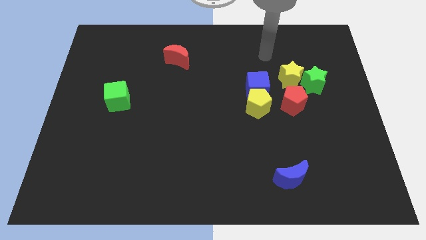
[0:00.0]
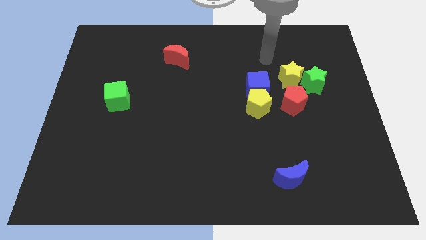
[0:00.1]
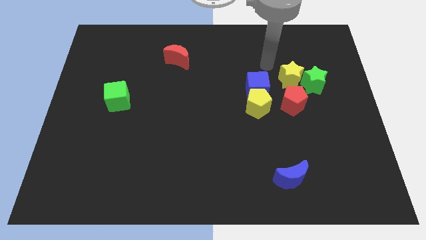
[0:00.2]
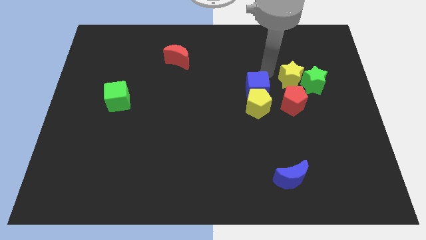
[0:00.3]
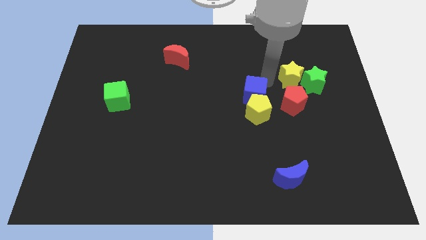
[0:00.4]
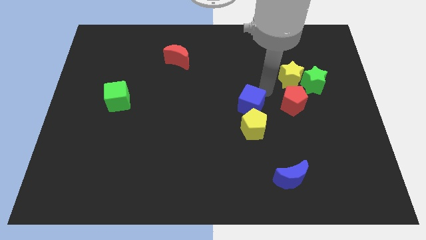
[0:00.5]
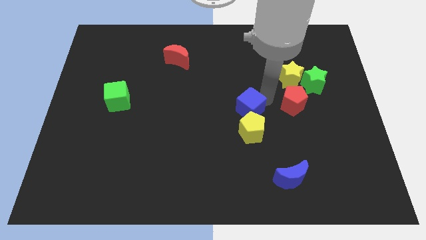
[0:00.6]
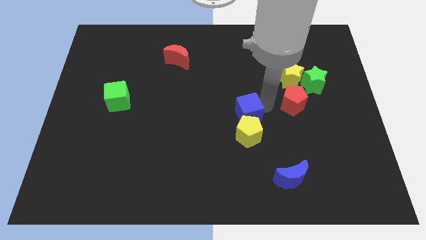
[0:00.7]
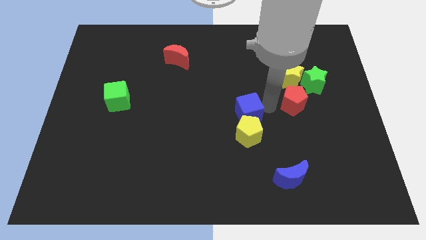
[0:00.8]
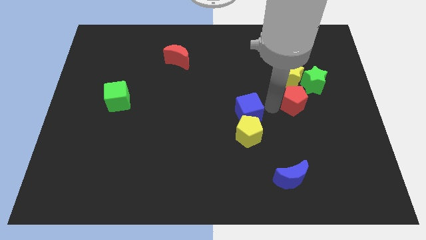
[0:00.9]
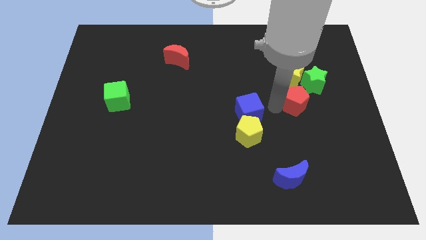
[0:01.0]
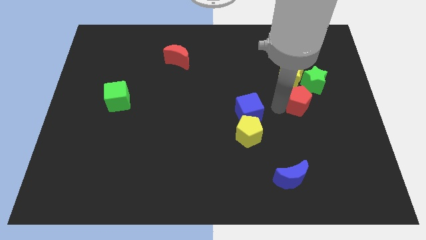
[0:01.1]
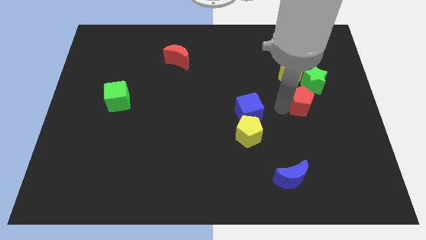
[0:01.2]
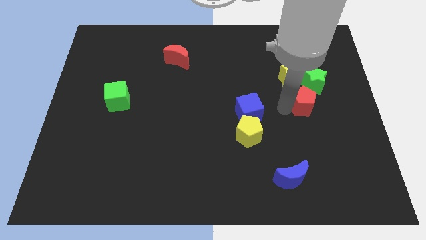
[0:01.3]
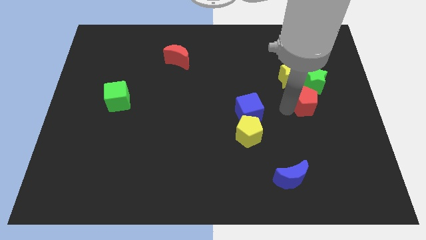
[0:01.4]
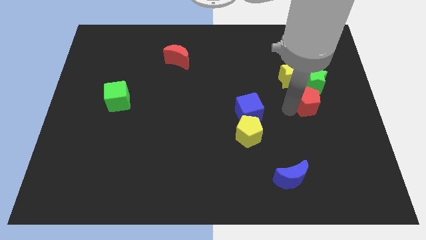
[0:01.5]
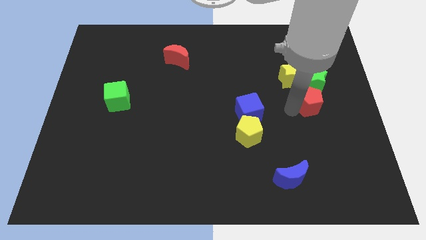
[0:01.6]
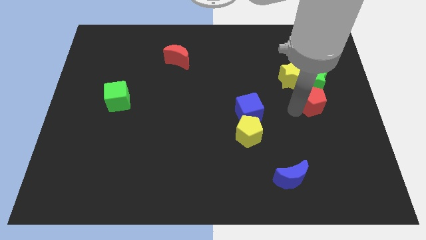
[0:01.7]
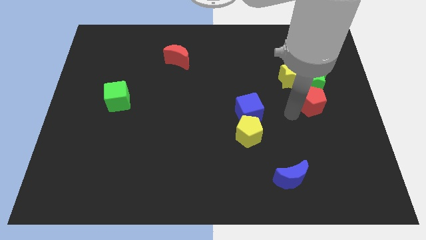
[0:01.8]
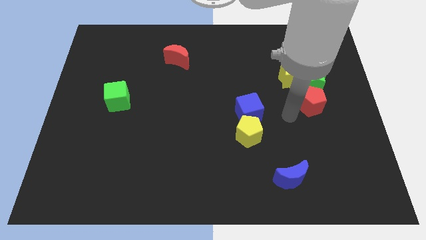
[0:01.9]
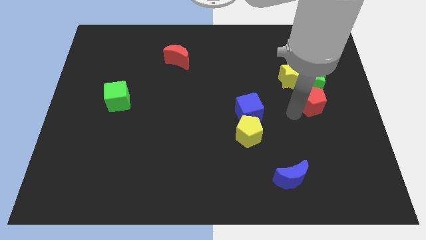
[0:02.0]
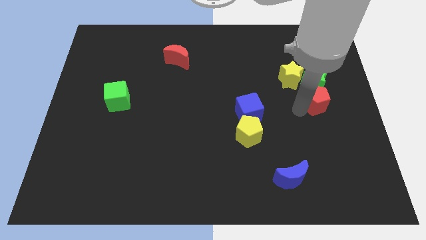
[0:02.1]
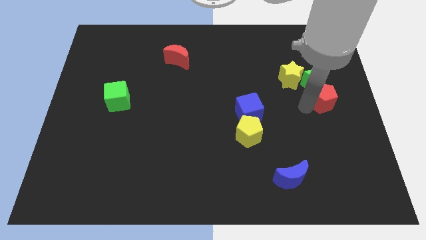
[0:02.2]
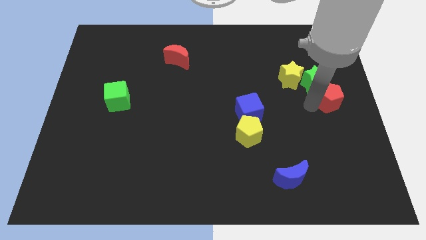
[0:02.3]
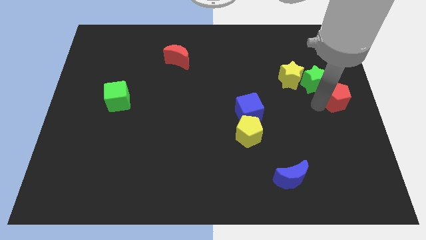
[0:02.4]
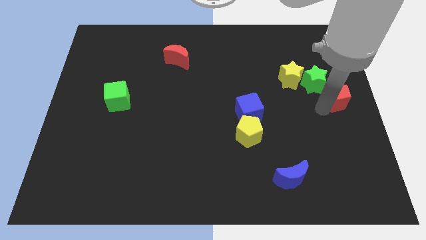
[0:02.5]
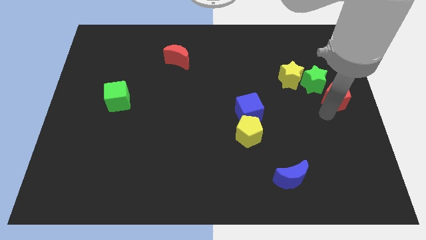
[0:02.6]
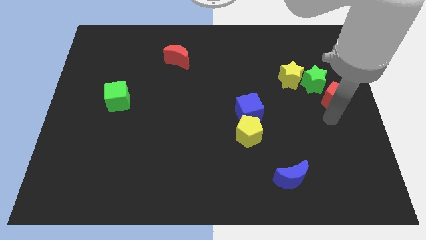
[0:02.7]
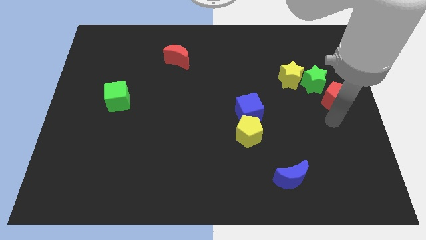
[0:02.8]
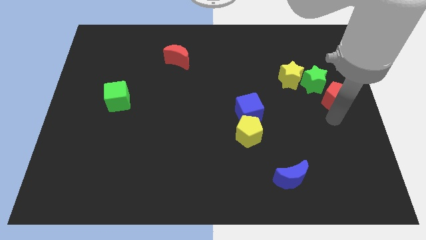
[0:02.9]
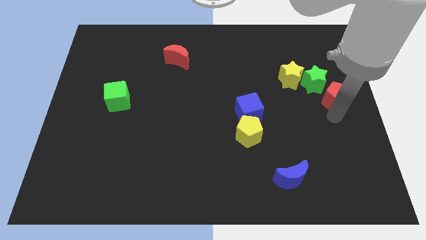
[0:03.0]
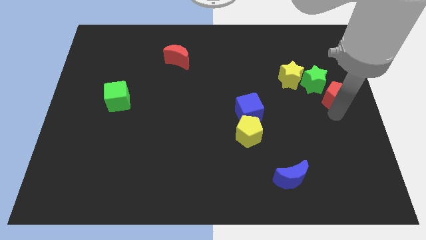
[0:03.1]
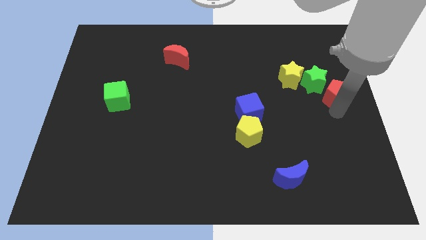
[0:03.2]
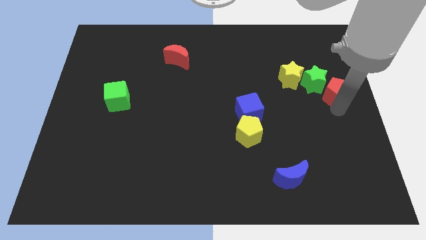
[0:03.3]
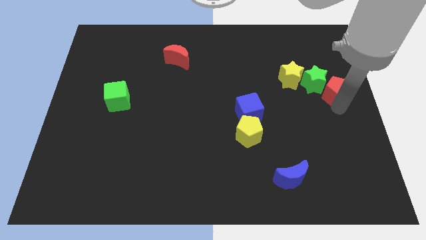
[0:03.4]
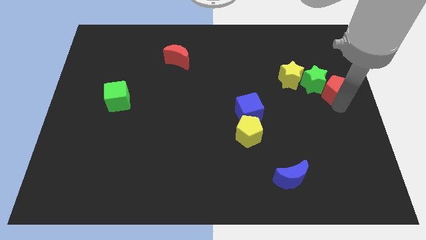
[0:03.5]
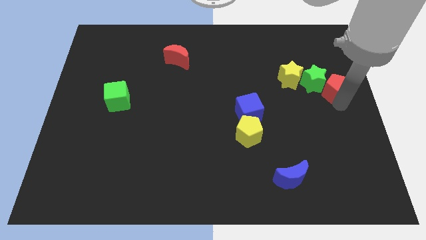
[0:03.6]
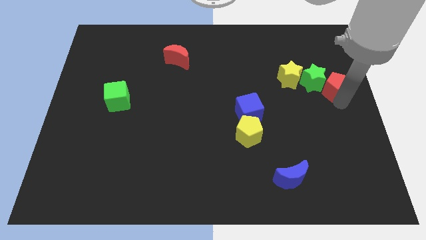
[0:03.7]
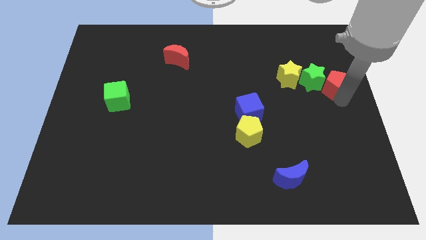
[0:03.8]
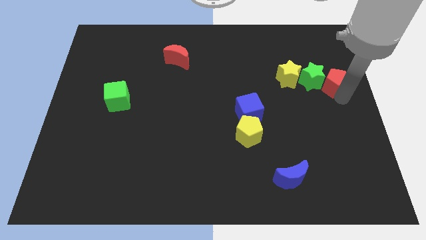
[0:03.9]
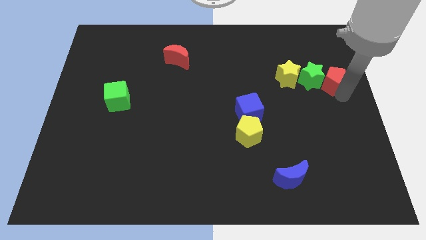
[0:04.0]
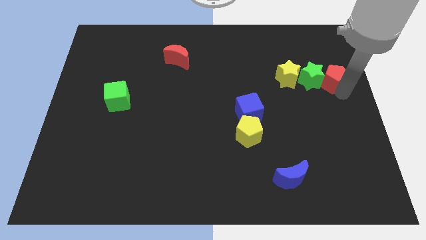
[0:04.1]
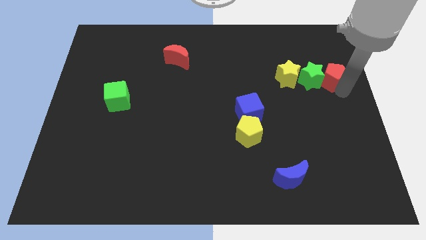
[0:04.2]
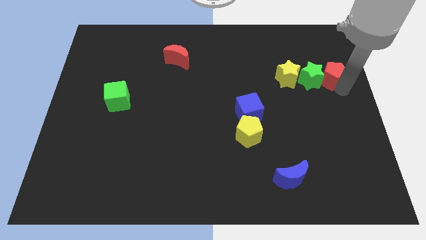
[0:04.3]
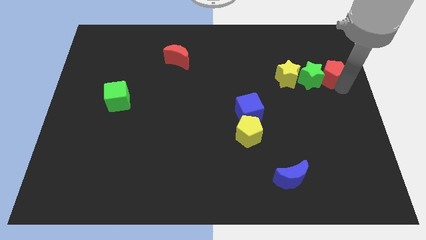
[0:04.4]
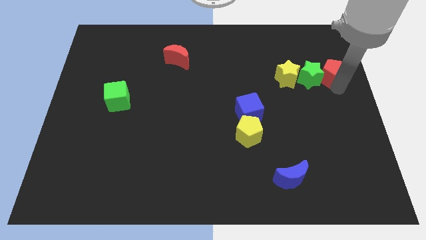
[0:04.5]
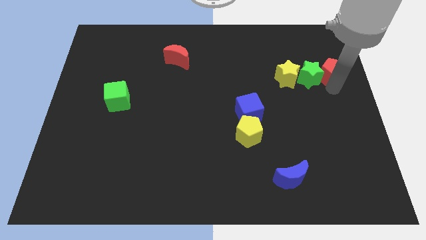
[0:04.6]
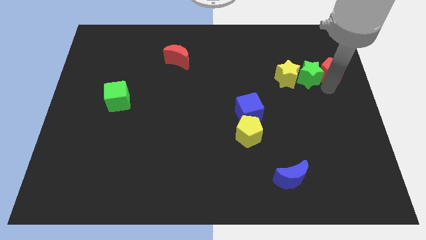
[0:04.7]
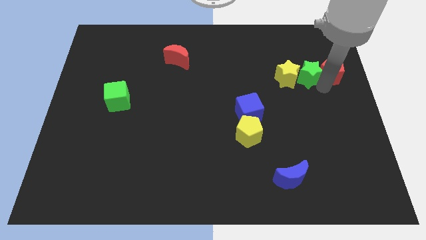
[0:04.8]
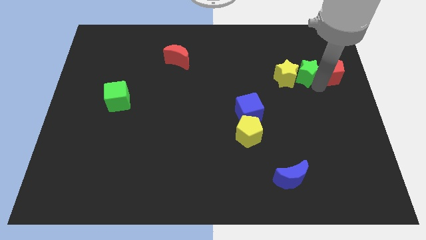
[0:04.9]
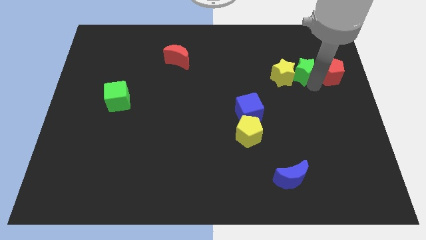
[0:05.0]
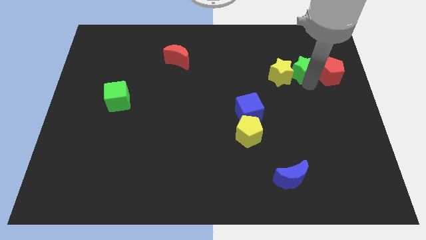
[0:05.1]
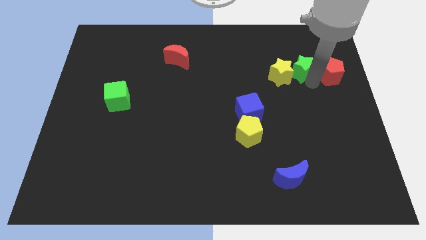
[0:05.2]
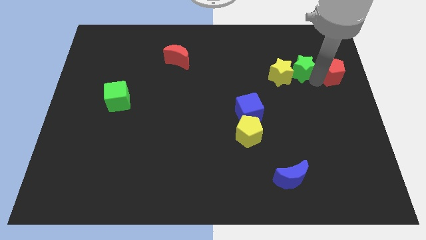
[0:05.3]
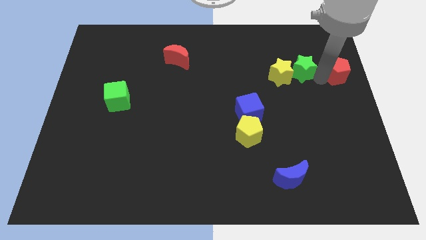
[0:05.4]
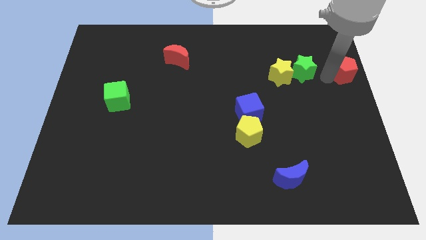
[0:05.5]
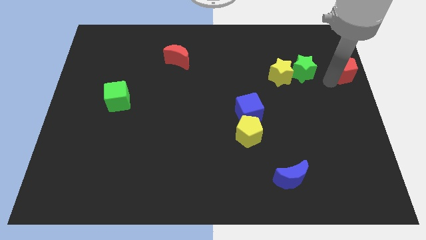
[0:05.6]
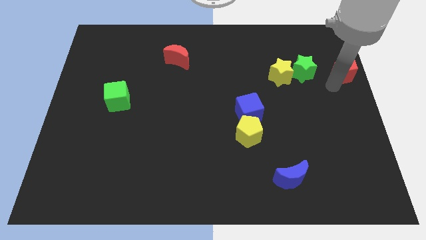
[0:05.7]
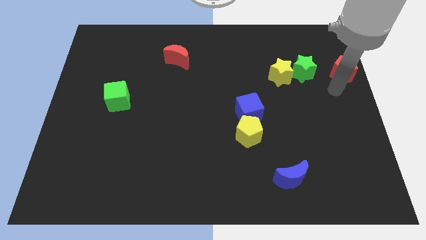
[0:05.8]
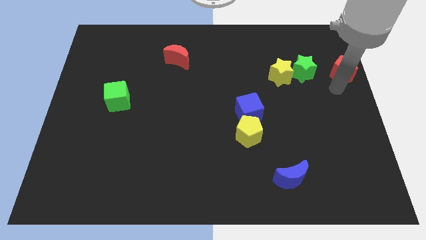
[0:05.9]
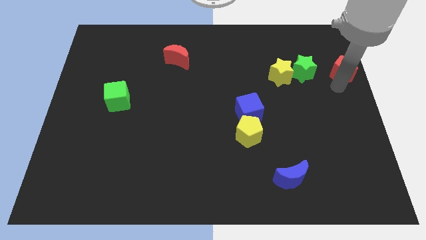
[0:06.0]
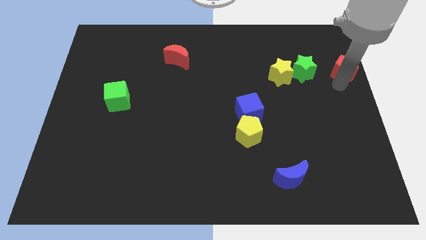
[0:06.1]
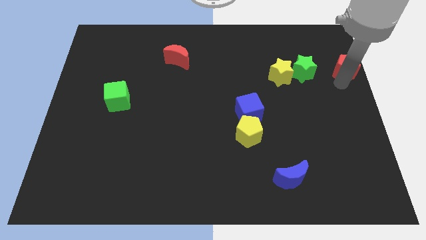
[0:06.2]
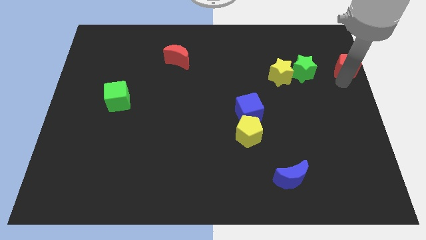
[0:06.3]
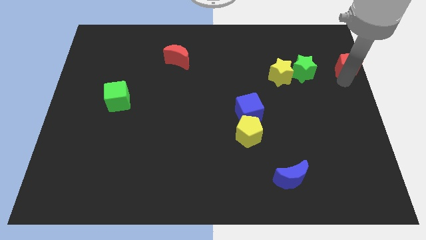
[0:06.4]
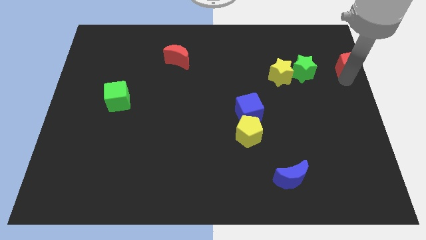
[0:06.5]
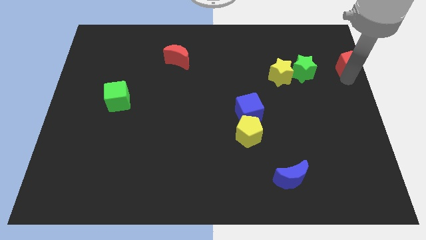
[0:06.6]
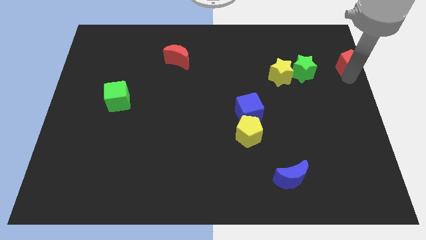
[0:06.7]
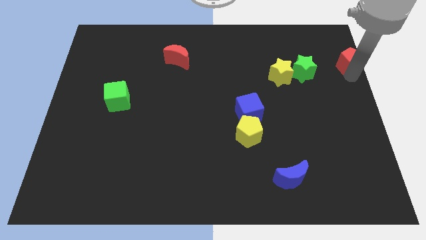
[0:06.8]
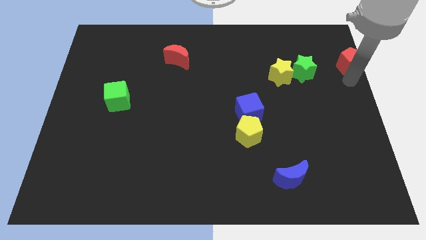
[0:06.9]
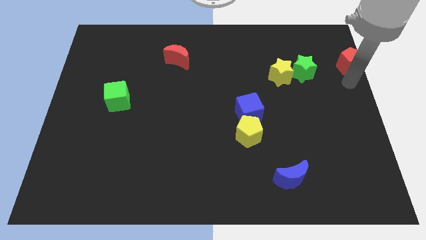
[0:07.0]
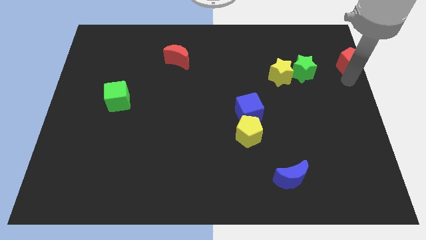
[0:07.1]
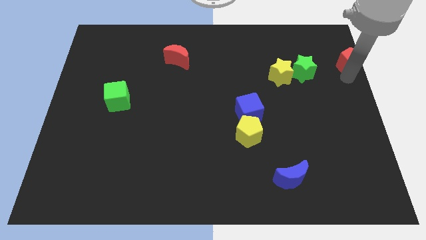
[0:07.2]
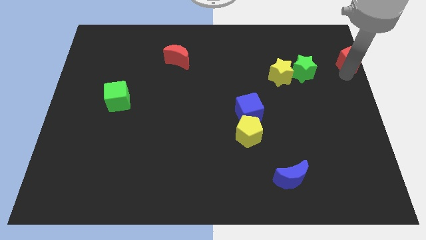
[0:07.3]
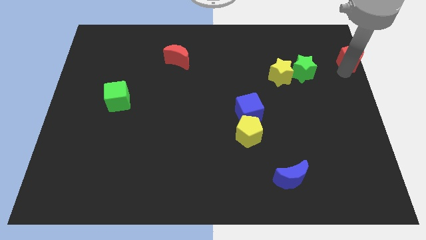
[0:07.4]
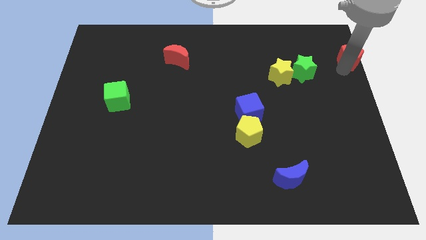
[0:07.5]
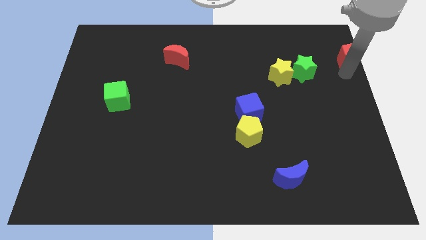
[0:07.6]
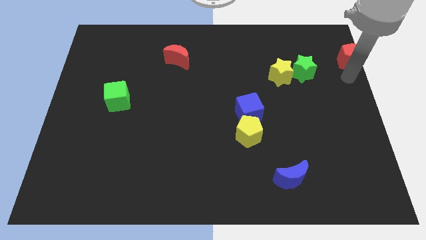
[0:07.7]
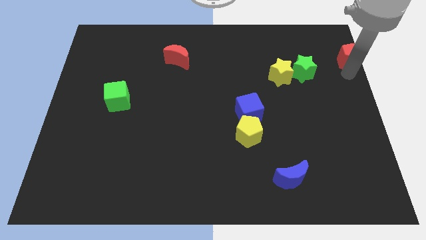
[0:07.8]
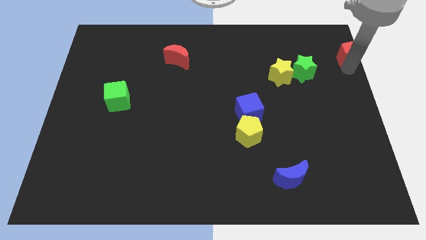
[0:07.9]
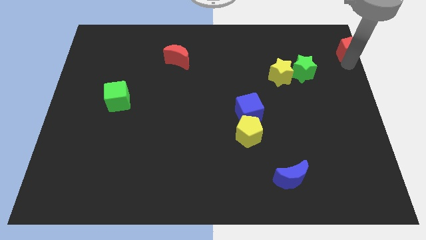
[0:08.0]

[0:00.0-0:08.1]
slide the red pentagon to the top right of the board
